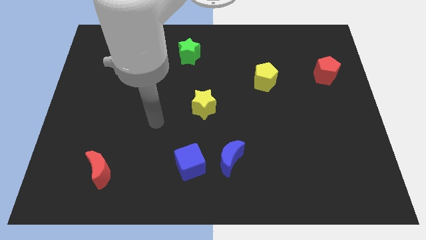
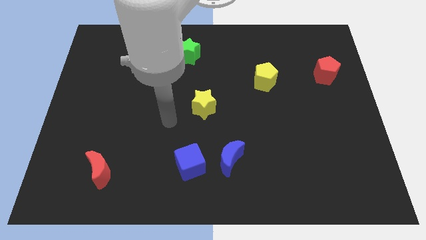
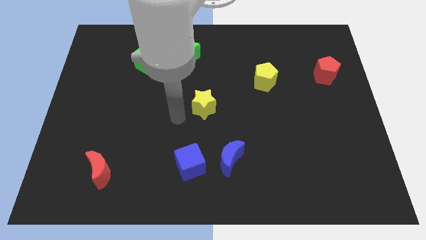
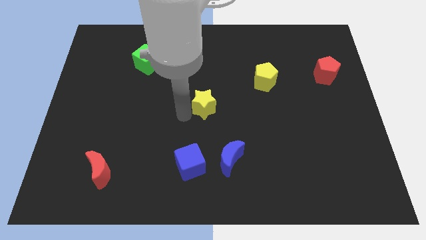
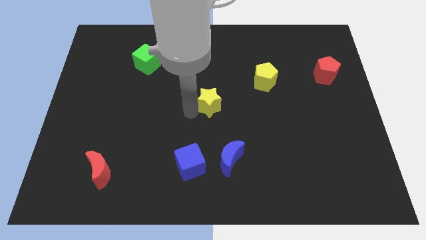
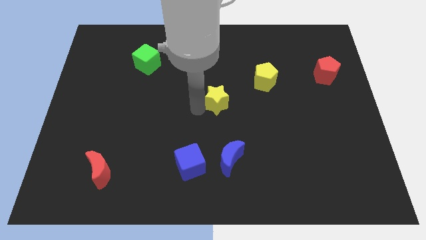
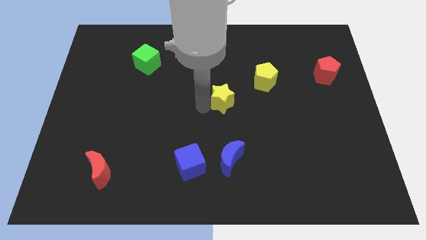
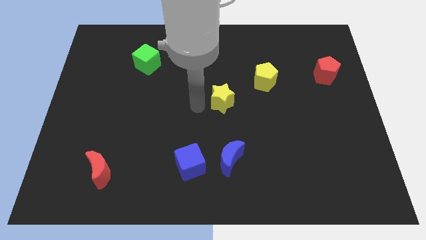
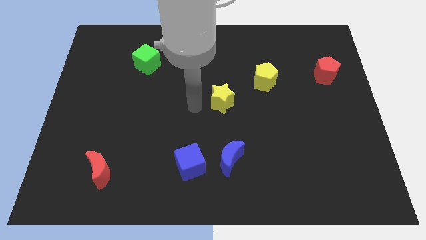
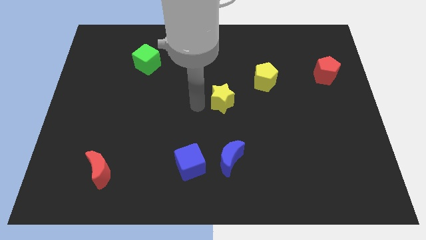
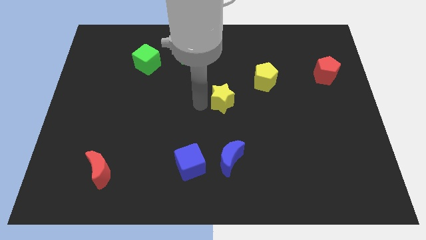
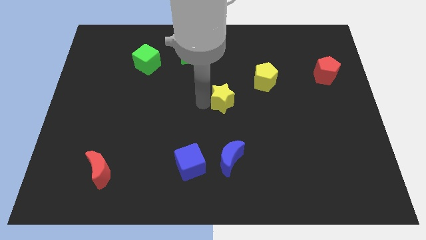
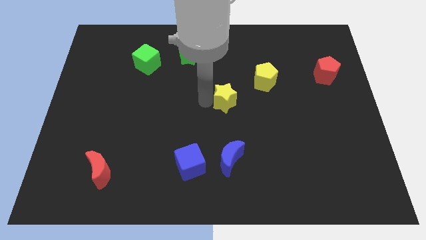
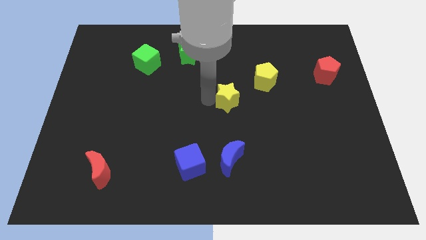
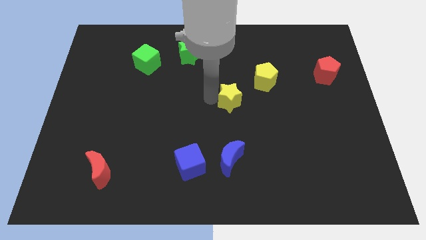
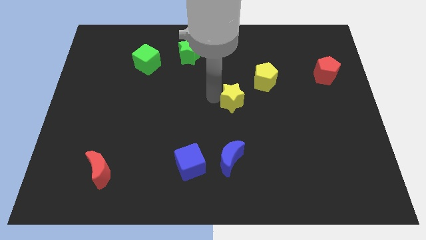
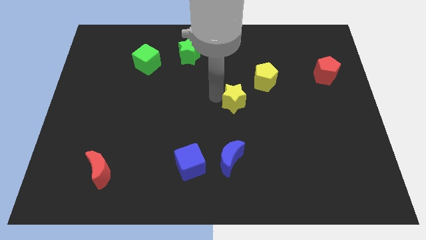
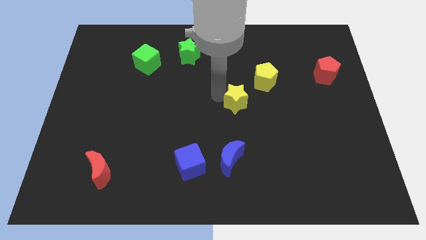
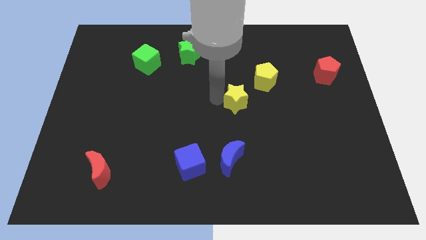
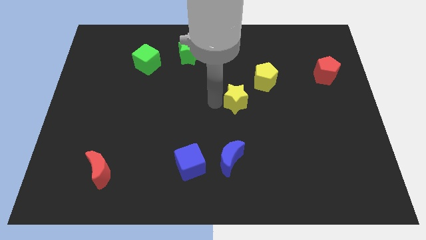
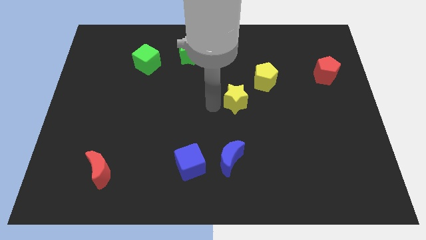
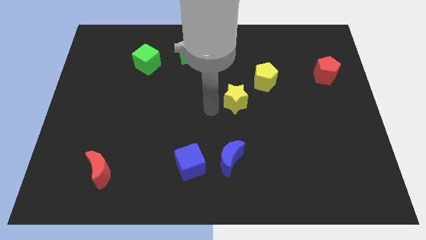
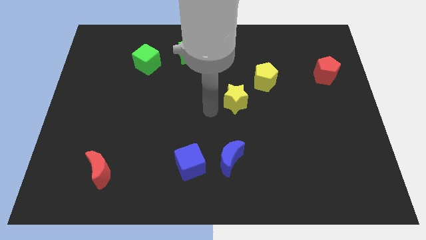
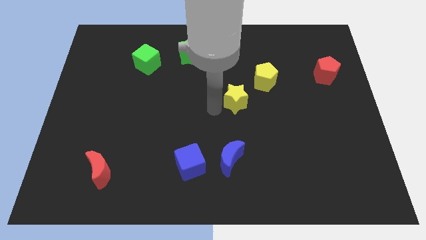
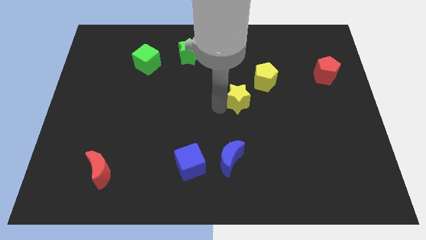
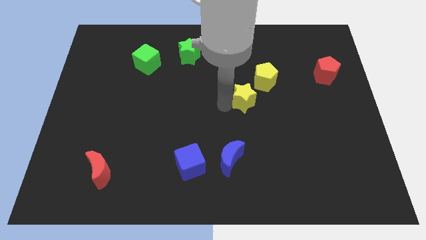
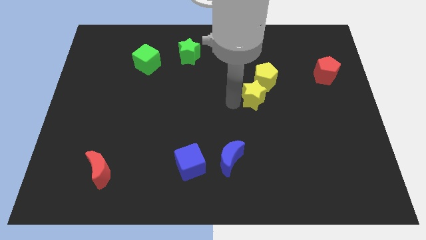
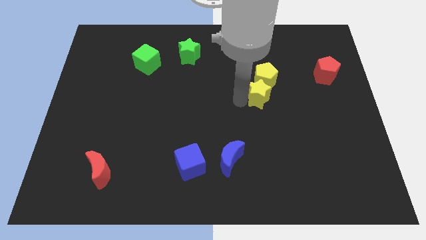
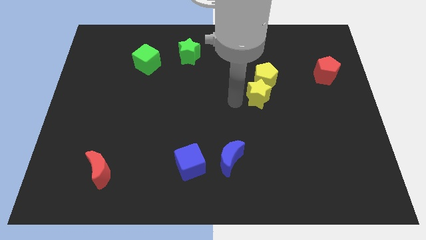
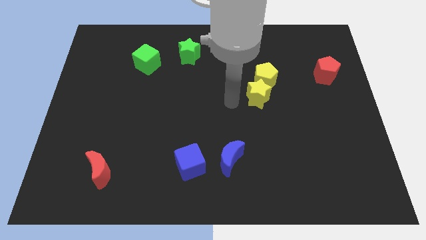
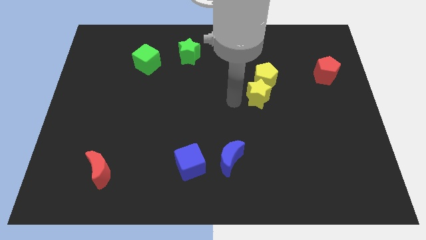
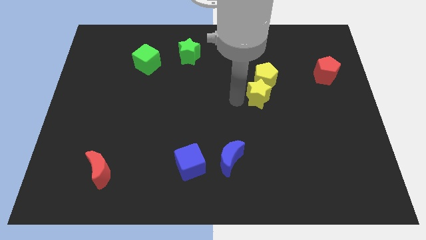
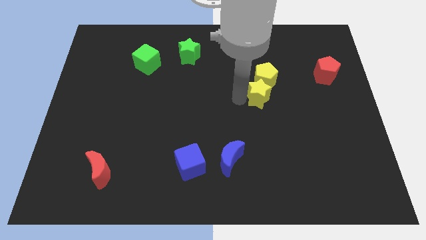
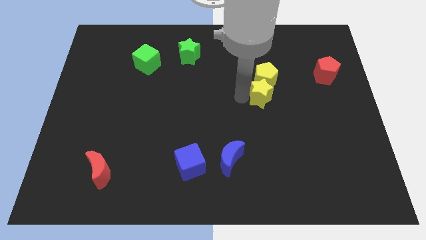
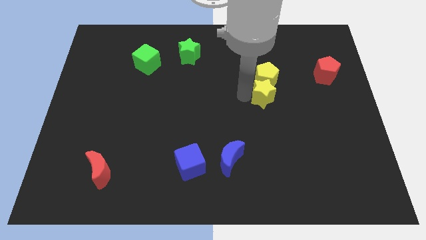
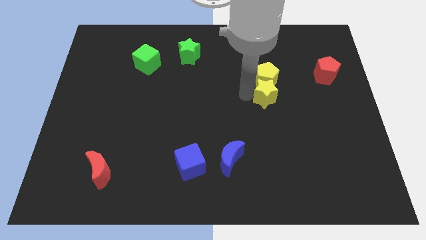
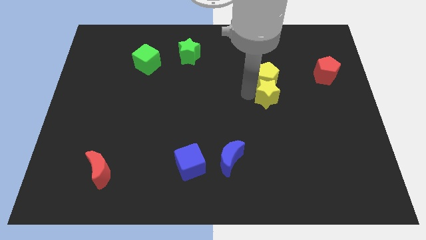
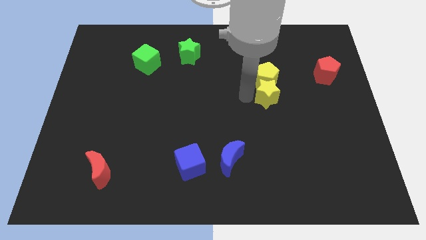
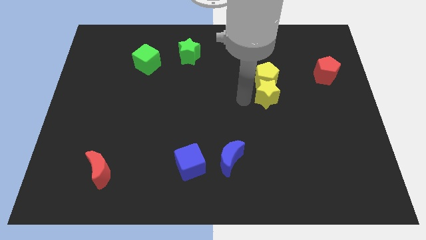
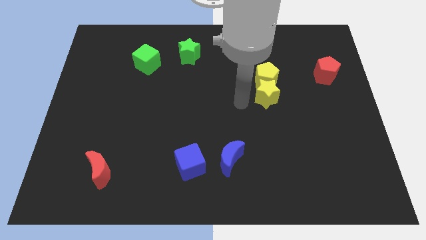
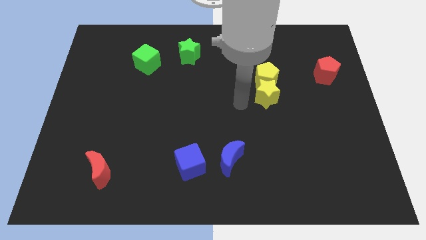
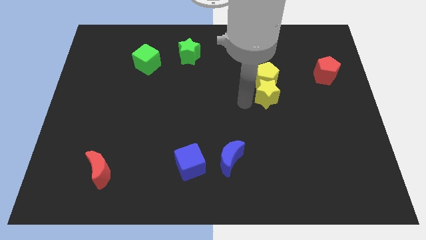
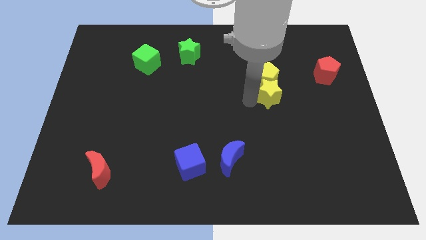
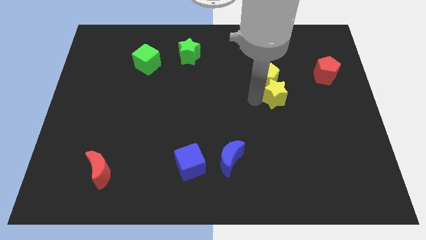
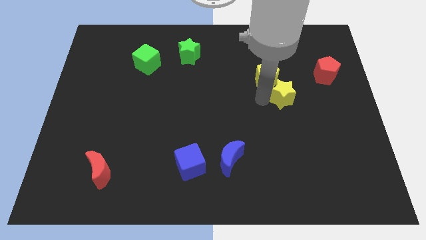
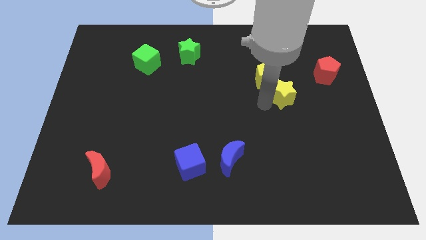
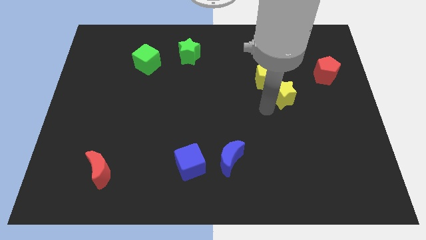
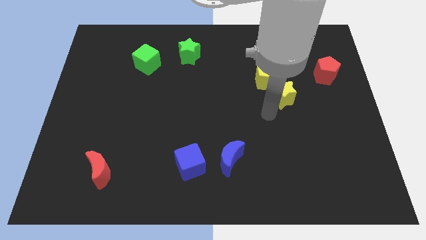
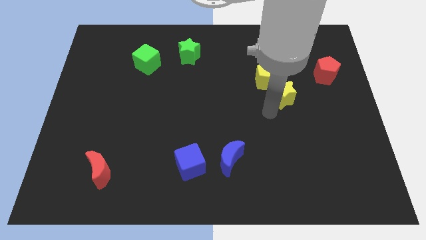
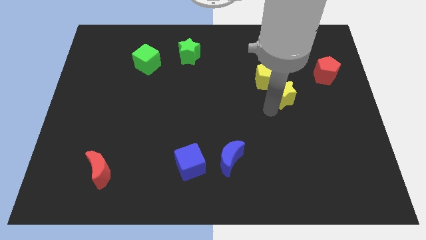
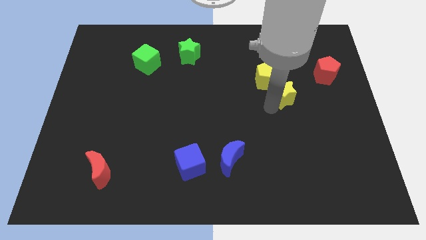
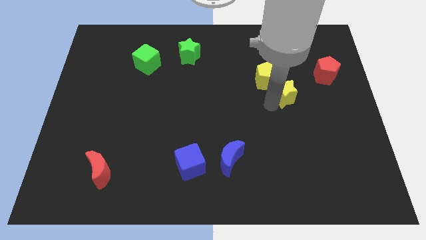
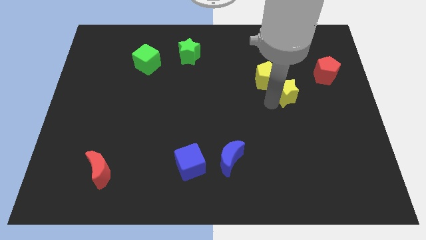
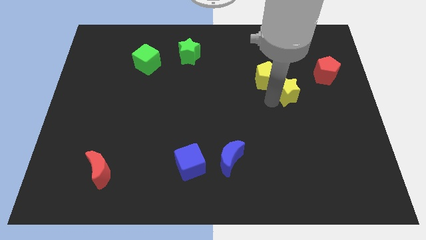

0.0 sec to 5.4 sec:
move the yellow star just right of the yellow pentagon

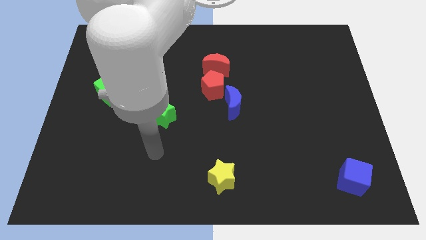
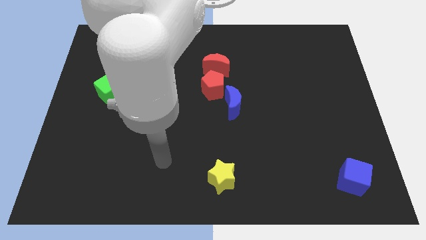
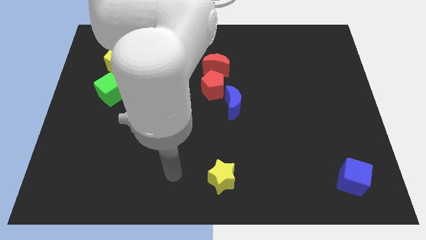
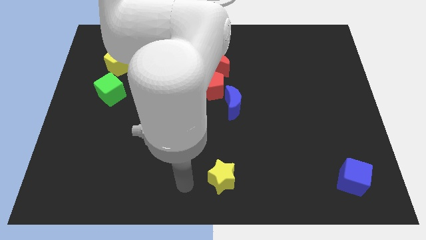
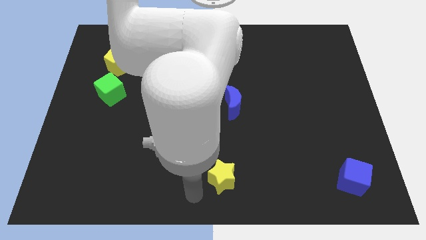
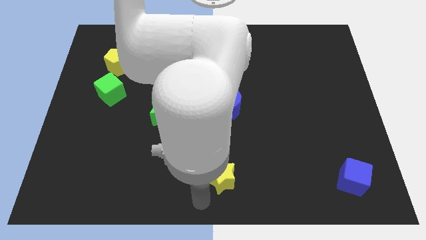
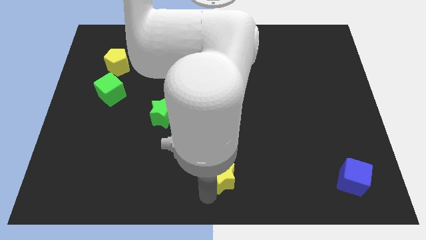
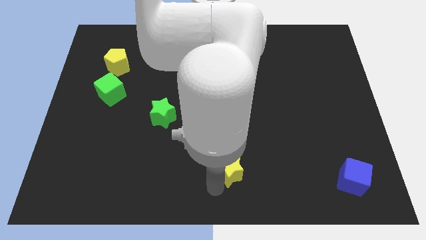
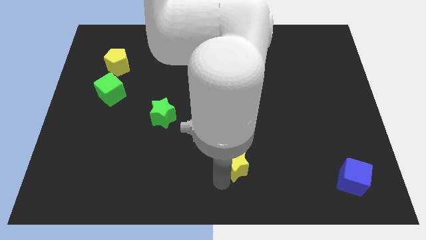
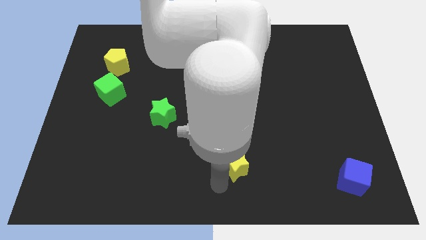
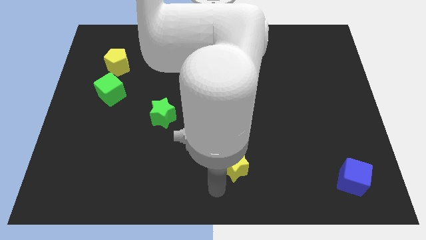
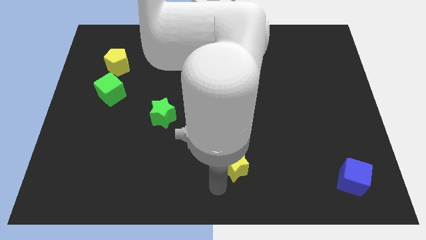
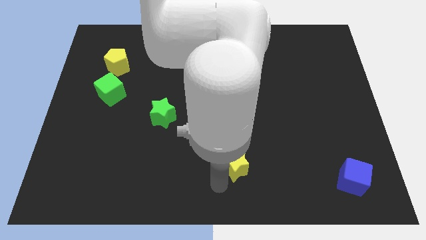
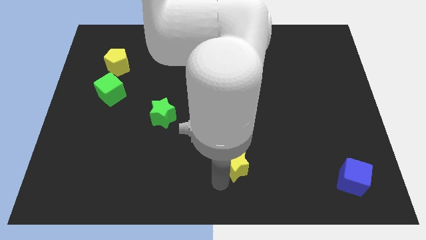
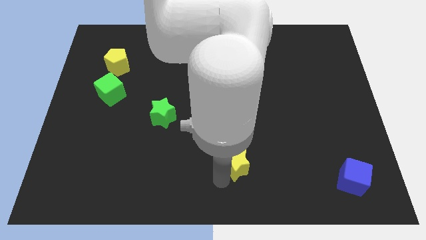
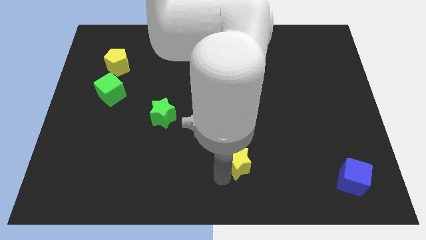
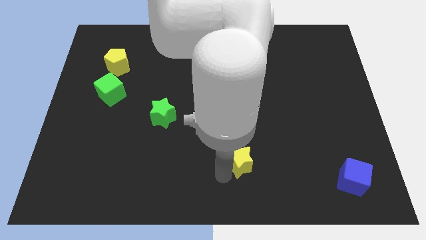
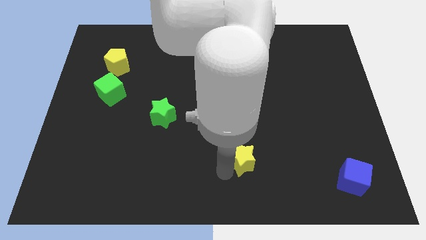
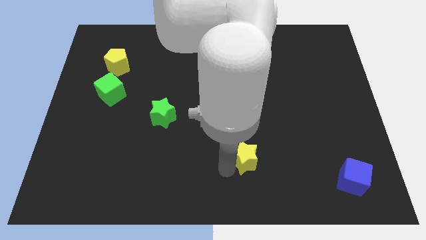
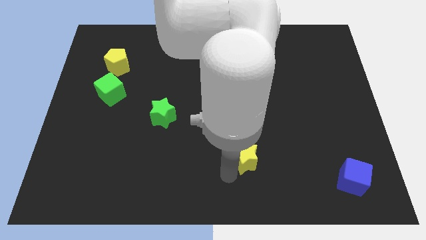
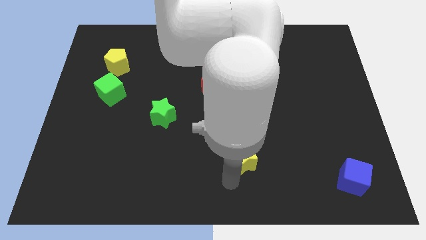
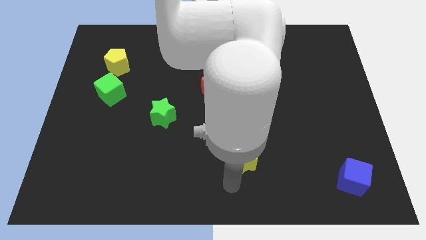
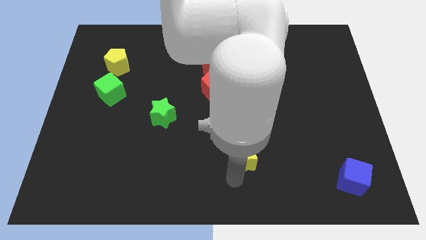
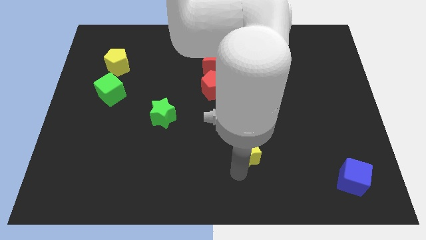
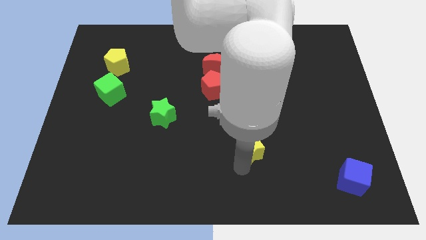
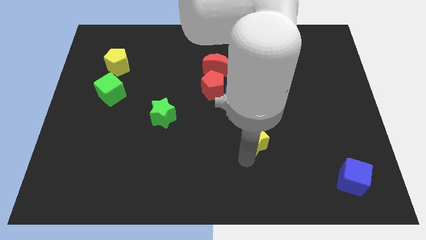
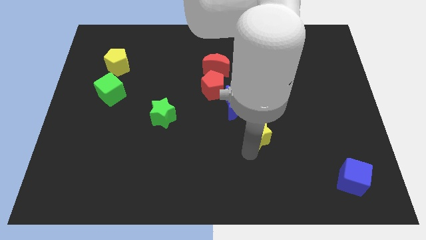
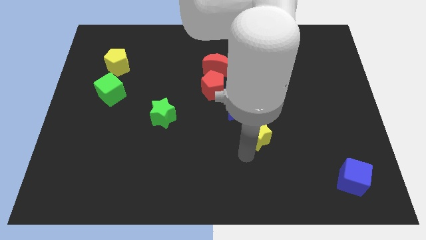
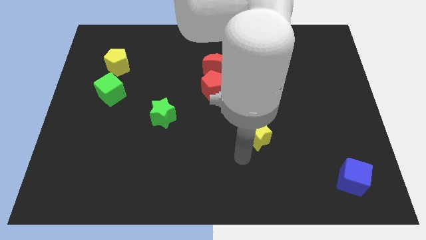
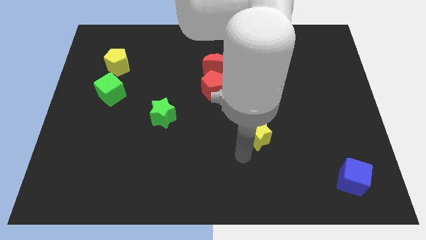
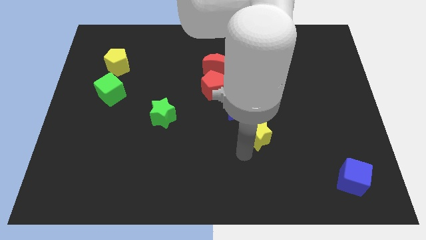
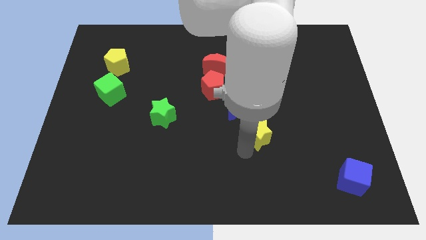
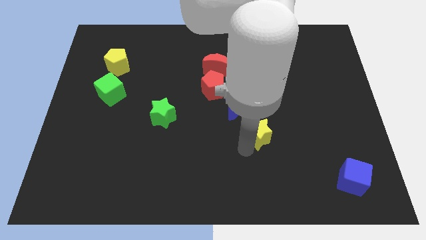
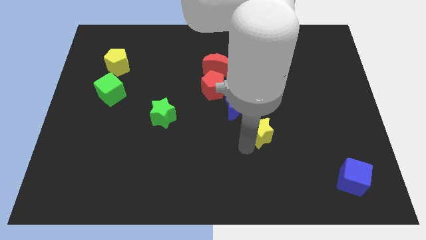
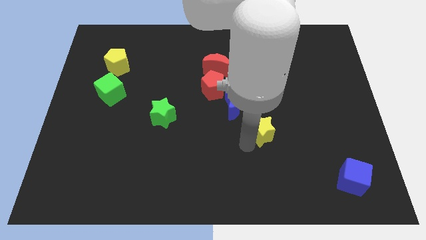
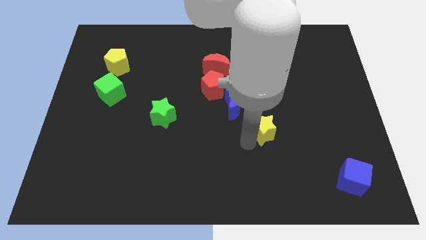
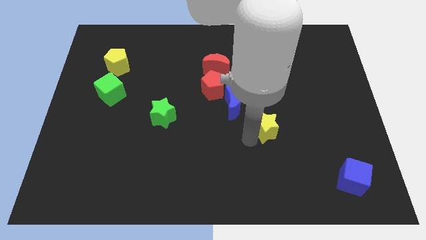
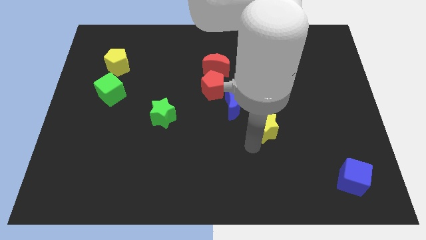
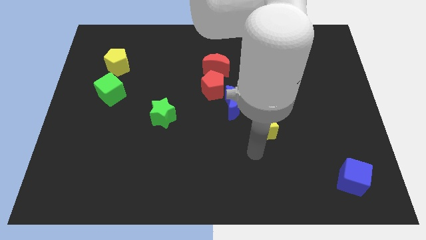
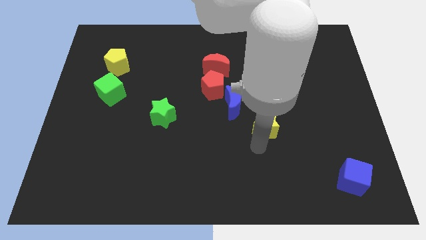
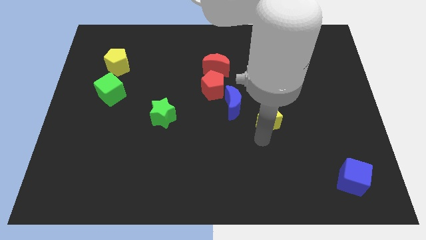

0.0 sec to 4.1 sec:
push the yellow star just right of the blue moon
